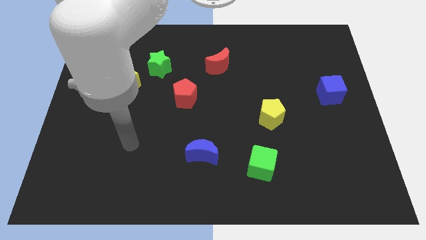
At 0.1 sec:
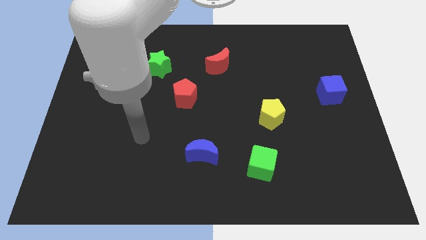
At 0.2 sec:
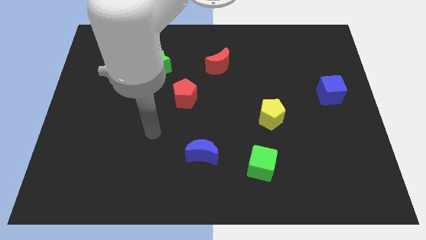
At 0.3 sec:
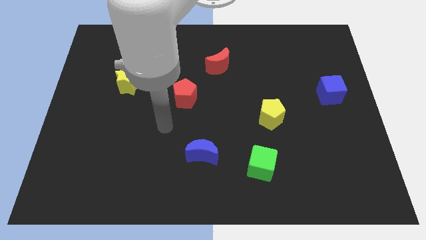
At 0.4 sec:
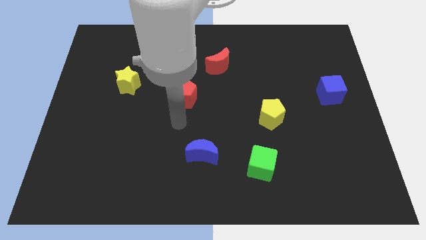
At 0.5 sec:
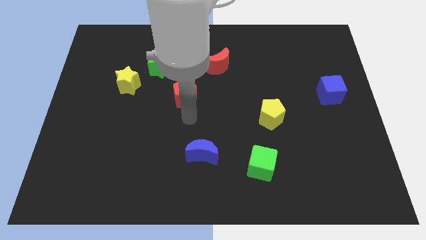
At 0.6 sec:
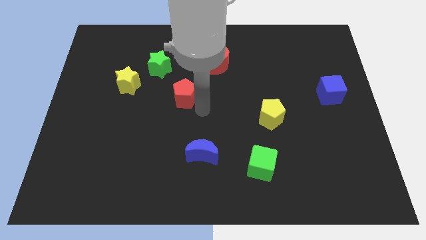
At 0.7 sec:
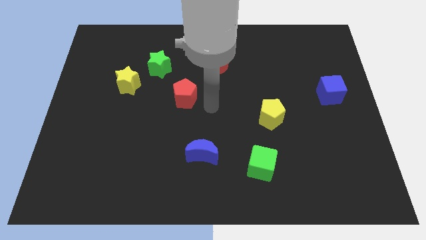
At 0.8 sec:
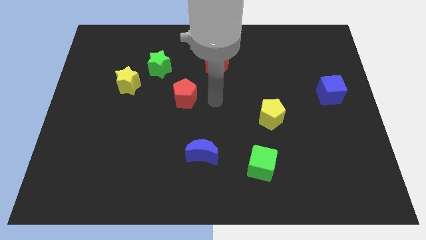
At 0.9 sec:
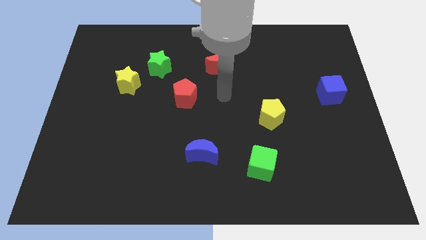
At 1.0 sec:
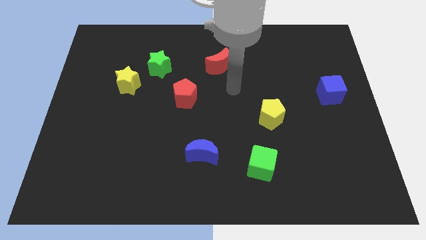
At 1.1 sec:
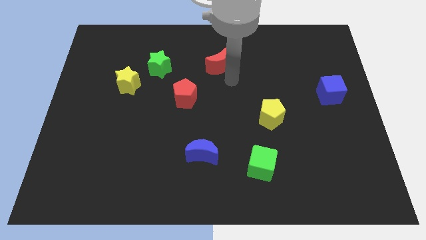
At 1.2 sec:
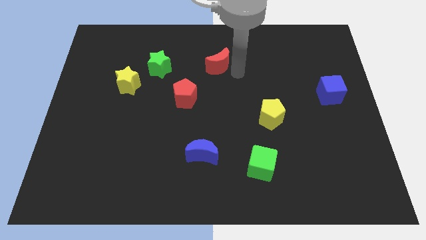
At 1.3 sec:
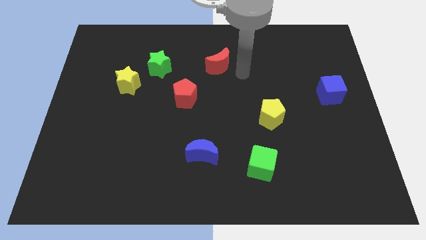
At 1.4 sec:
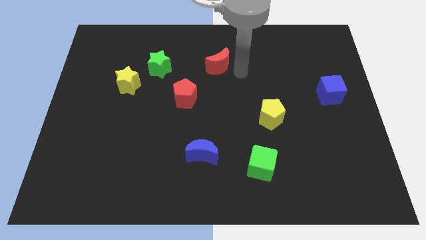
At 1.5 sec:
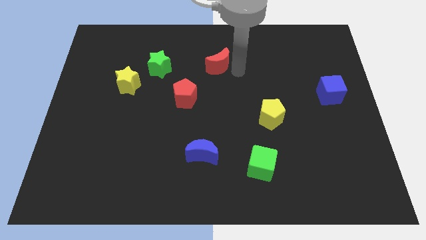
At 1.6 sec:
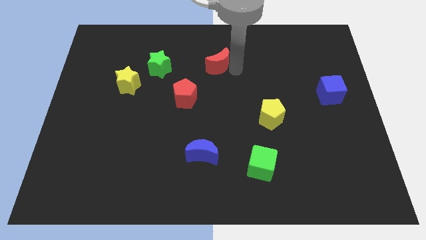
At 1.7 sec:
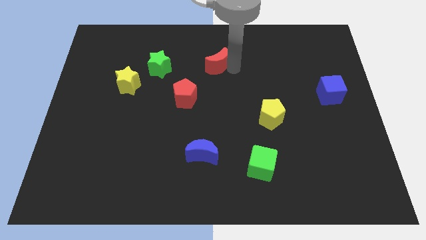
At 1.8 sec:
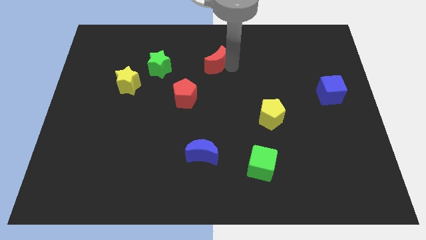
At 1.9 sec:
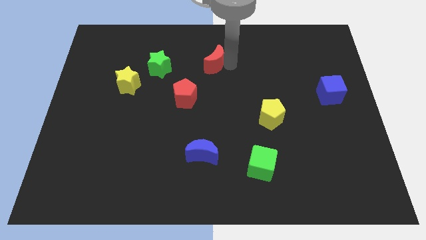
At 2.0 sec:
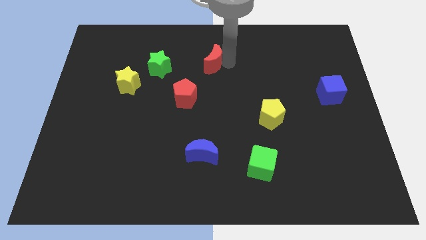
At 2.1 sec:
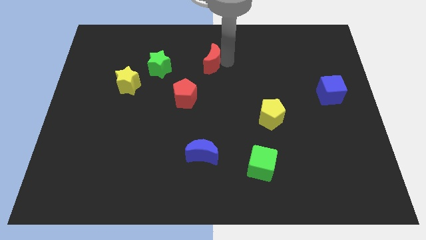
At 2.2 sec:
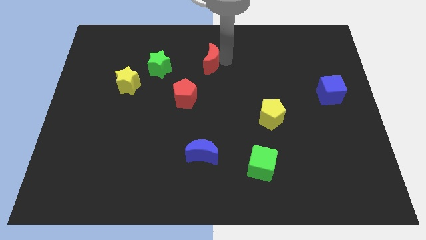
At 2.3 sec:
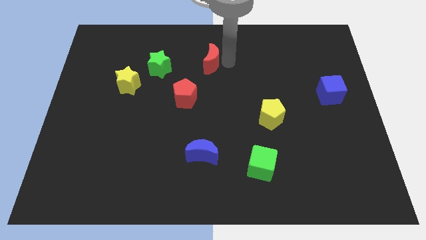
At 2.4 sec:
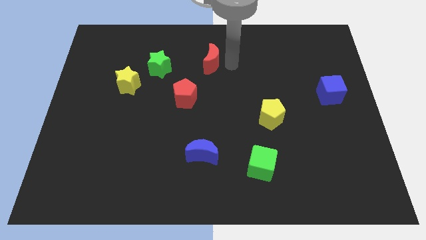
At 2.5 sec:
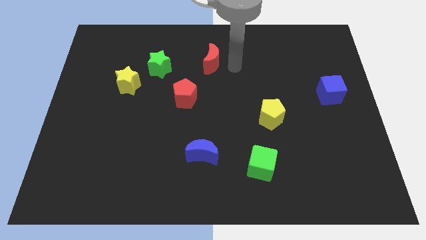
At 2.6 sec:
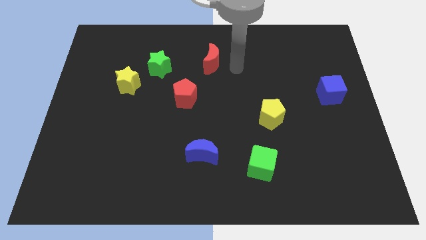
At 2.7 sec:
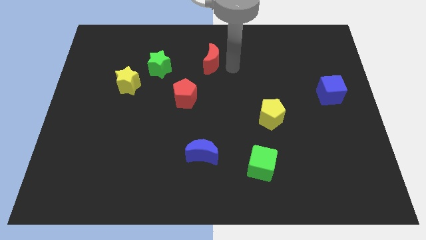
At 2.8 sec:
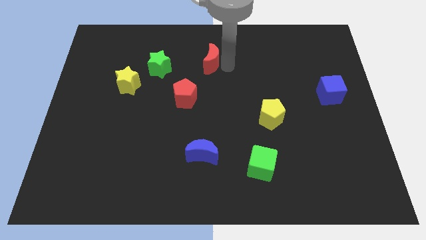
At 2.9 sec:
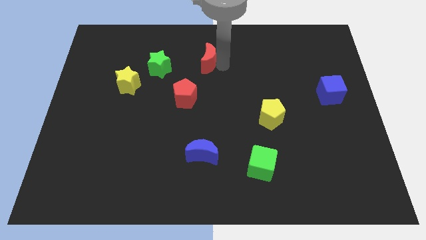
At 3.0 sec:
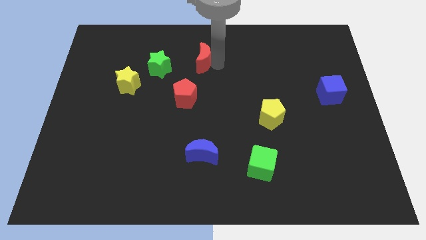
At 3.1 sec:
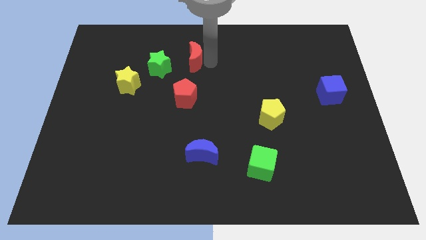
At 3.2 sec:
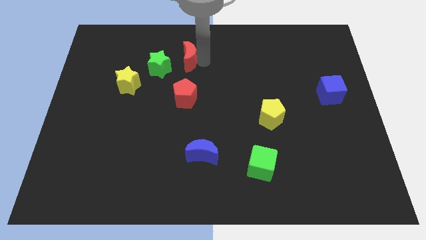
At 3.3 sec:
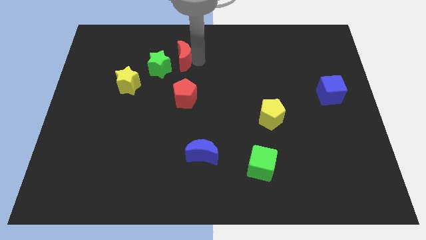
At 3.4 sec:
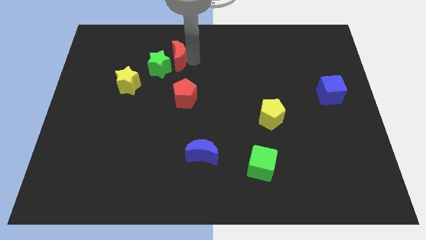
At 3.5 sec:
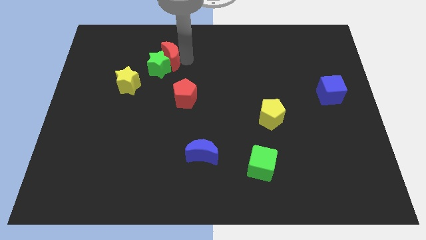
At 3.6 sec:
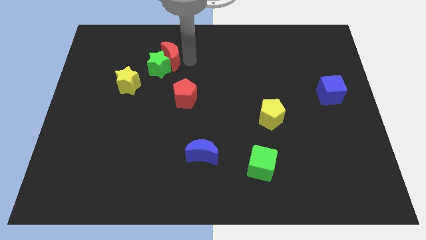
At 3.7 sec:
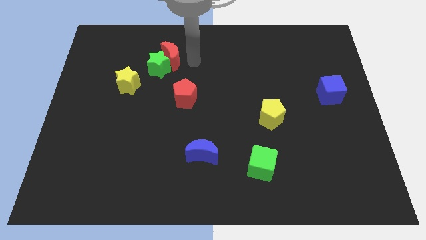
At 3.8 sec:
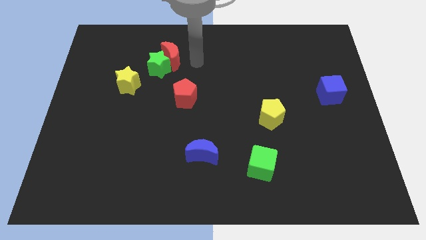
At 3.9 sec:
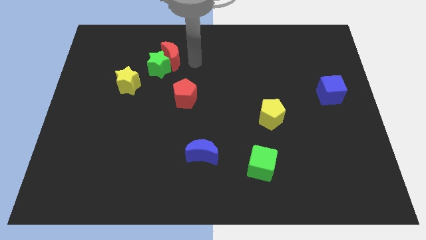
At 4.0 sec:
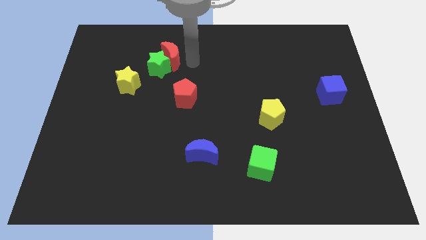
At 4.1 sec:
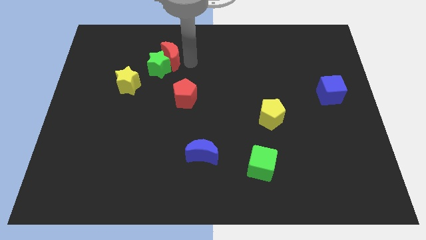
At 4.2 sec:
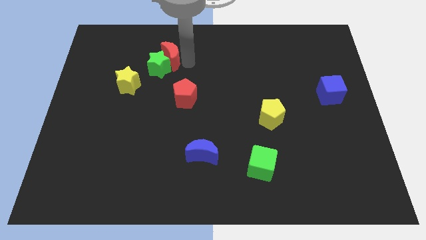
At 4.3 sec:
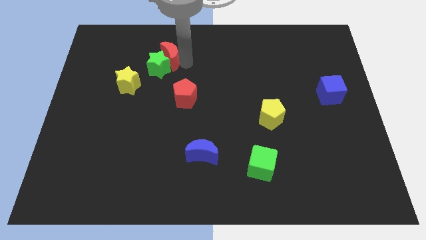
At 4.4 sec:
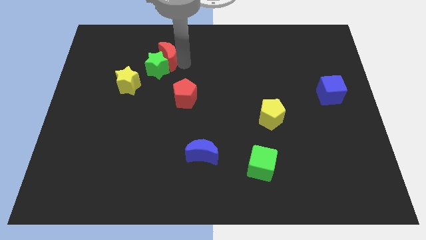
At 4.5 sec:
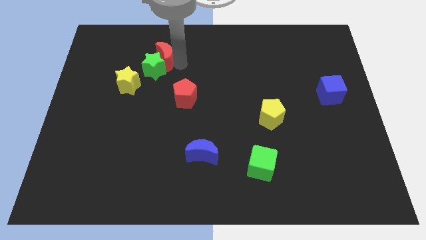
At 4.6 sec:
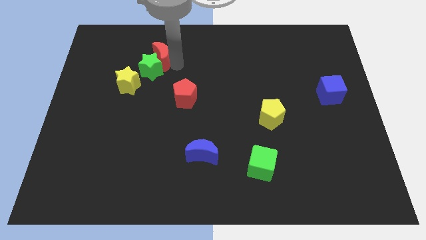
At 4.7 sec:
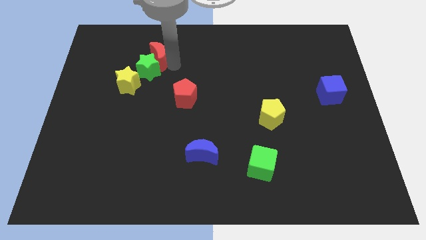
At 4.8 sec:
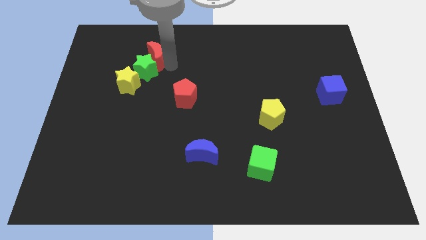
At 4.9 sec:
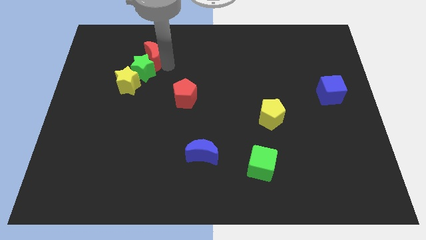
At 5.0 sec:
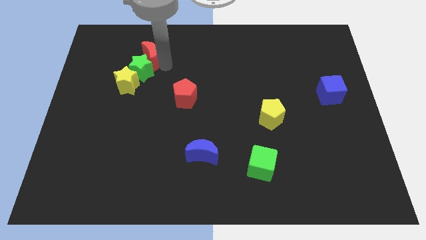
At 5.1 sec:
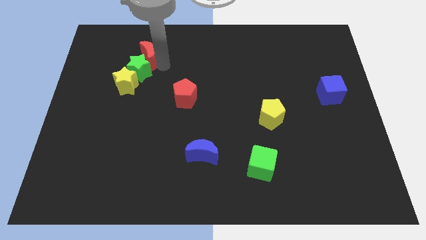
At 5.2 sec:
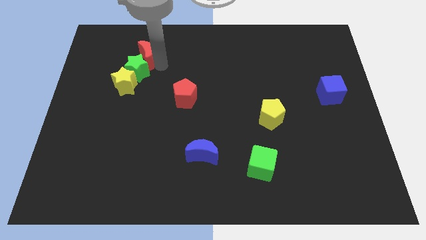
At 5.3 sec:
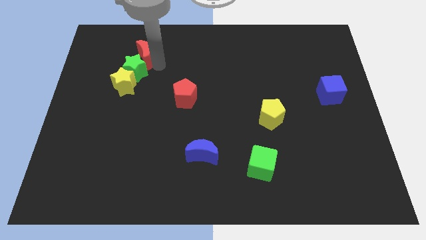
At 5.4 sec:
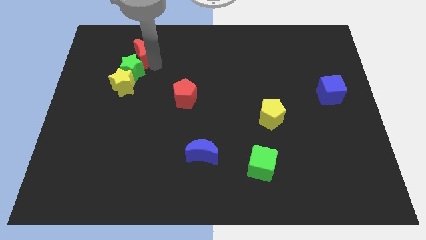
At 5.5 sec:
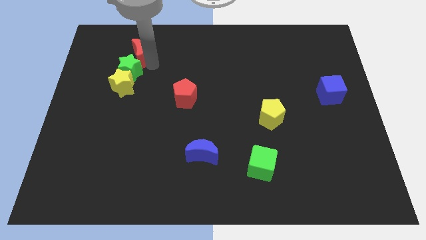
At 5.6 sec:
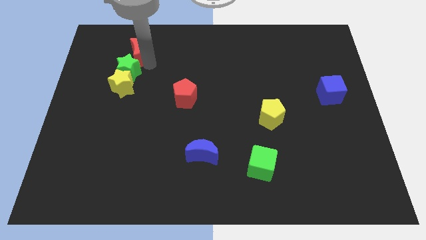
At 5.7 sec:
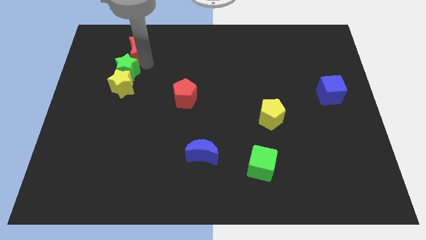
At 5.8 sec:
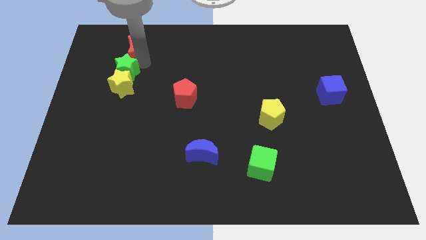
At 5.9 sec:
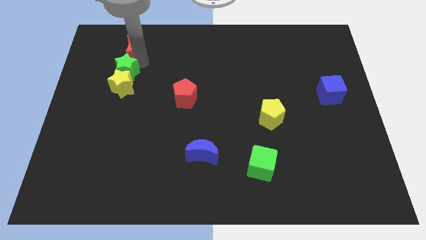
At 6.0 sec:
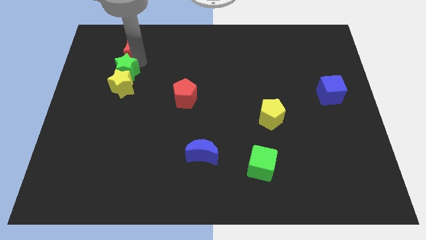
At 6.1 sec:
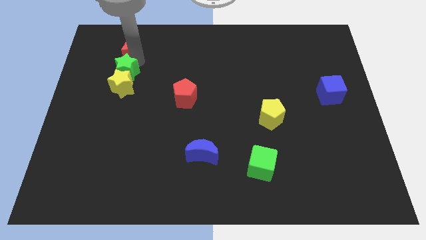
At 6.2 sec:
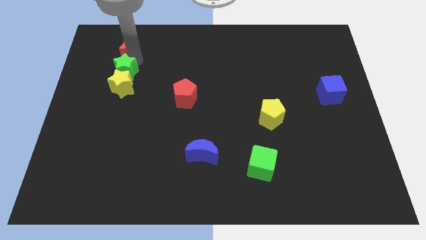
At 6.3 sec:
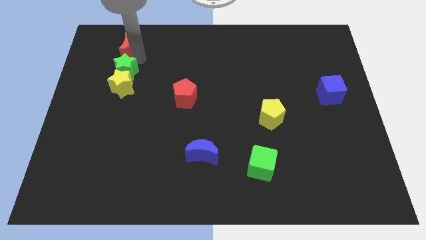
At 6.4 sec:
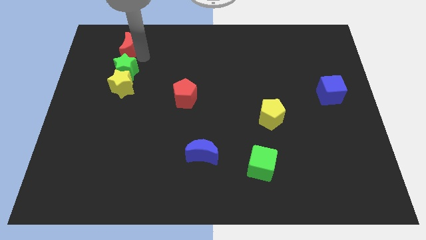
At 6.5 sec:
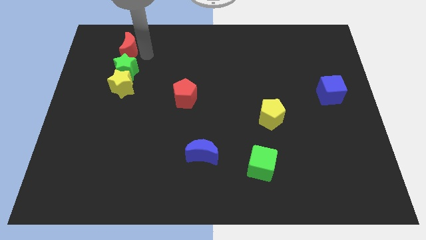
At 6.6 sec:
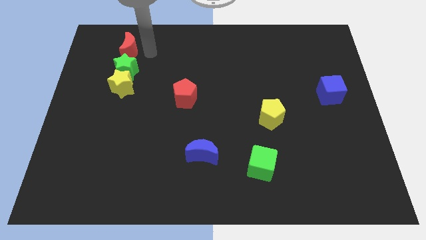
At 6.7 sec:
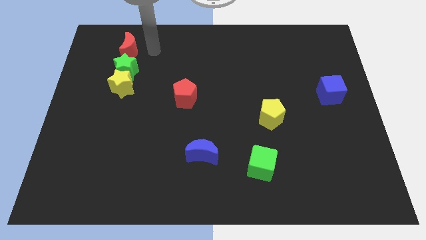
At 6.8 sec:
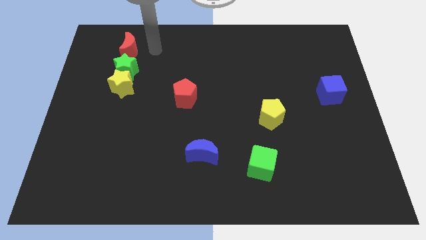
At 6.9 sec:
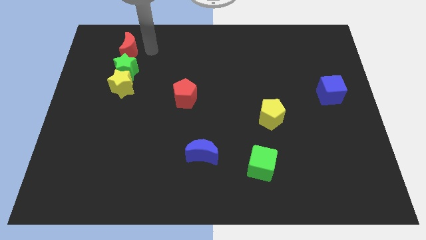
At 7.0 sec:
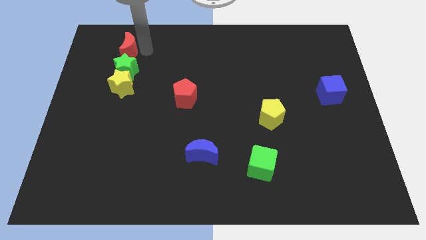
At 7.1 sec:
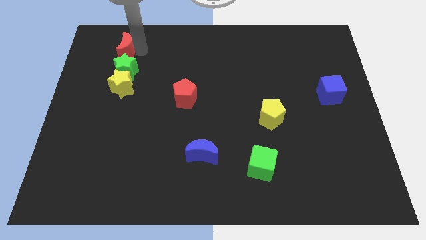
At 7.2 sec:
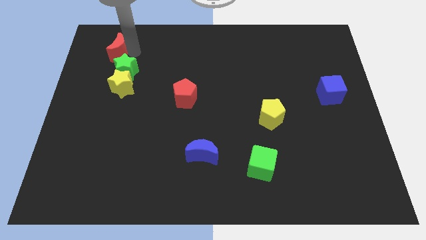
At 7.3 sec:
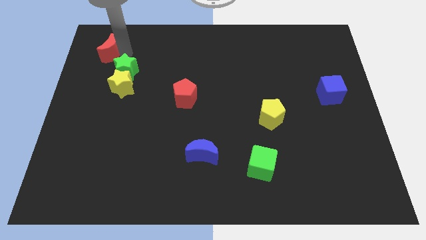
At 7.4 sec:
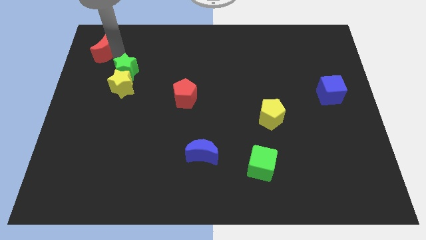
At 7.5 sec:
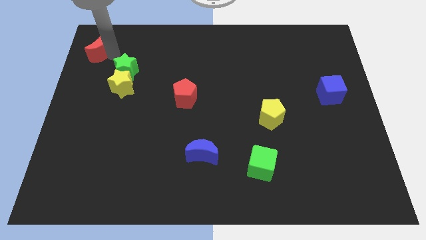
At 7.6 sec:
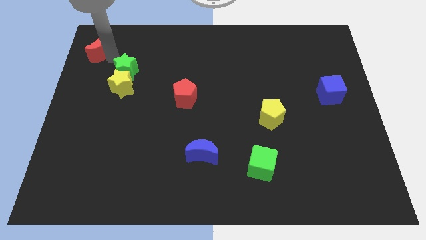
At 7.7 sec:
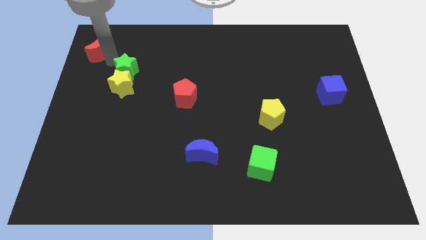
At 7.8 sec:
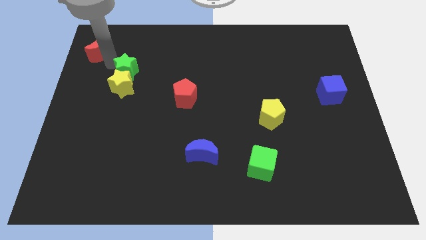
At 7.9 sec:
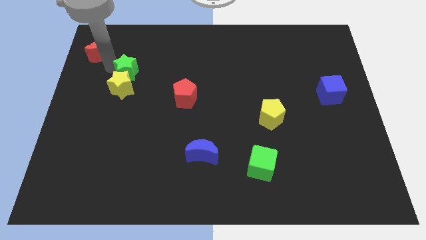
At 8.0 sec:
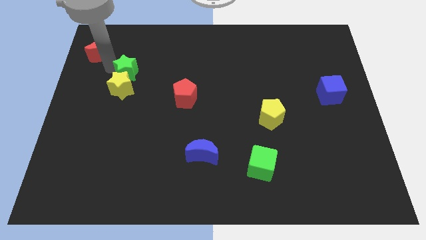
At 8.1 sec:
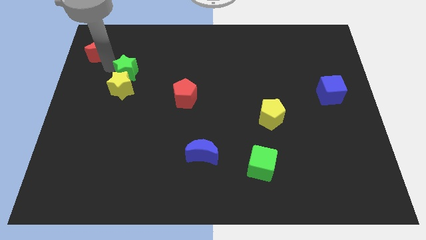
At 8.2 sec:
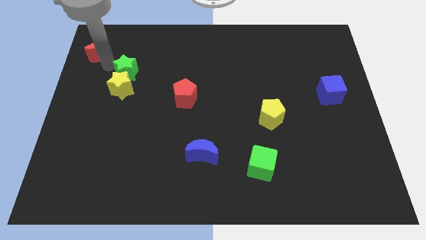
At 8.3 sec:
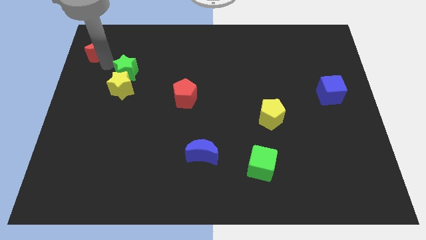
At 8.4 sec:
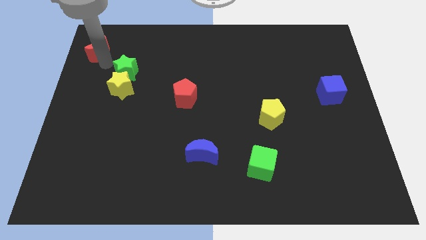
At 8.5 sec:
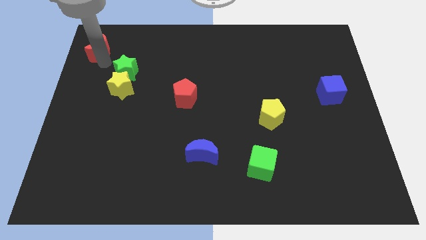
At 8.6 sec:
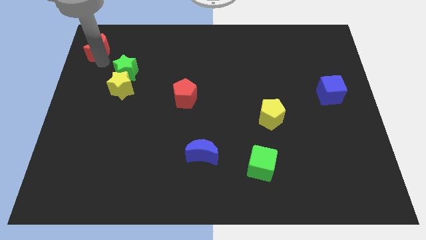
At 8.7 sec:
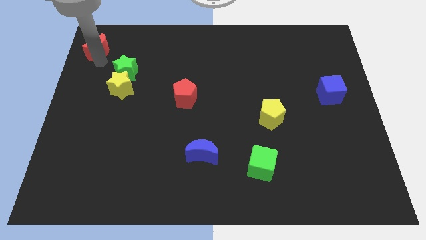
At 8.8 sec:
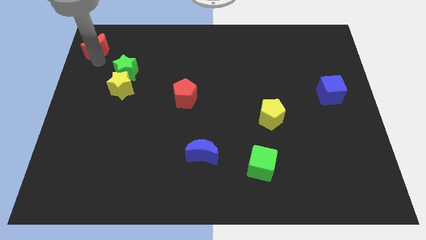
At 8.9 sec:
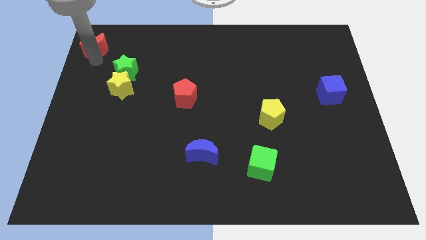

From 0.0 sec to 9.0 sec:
put the red moon to the top left of the board
